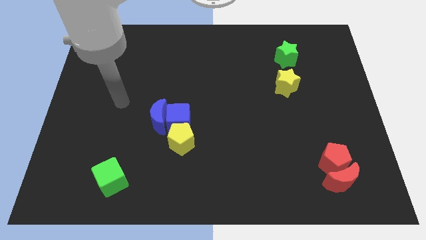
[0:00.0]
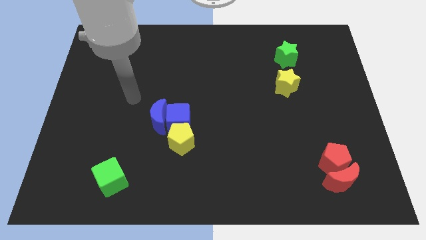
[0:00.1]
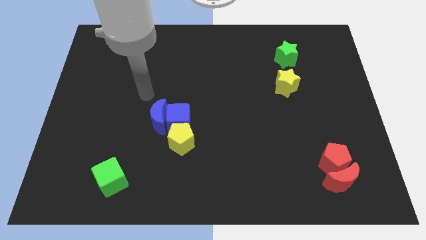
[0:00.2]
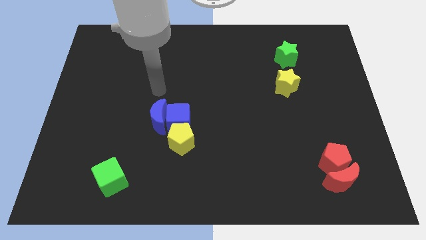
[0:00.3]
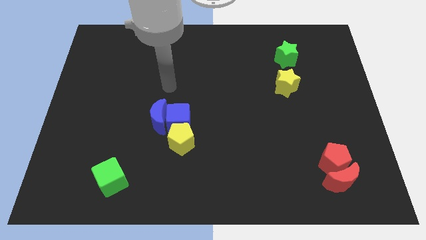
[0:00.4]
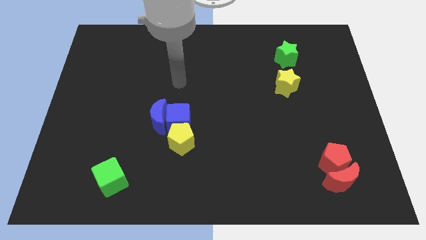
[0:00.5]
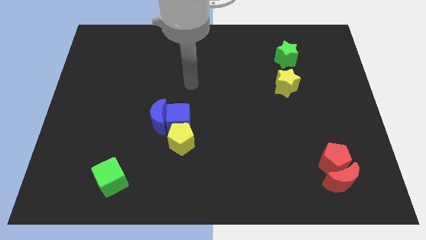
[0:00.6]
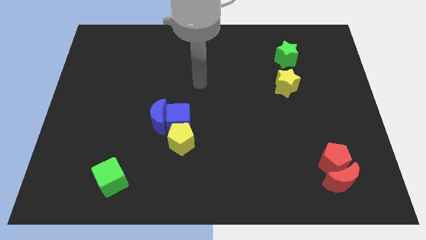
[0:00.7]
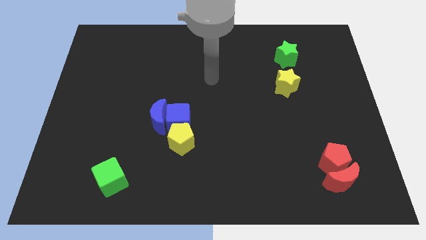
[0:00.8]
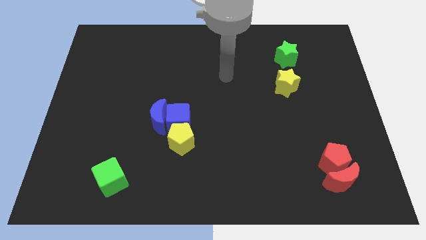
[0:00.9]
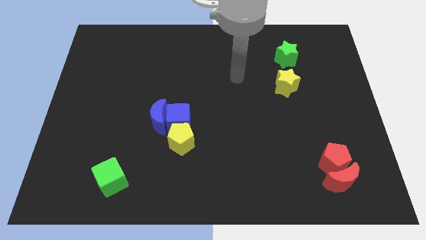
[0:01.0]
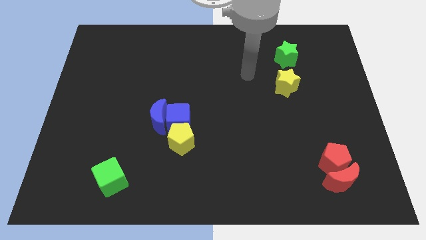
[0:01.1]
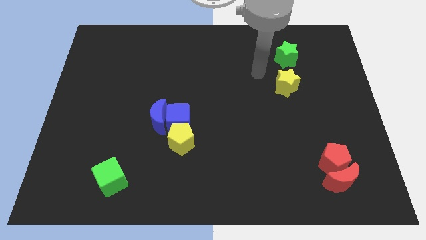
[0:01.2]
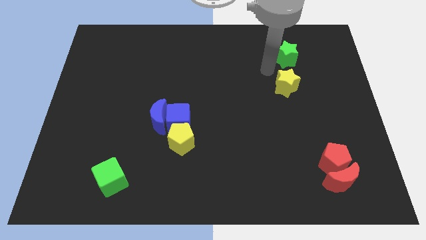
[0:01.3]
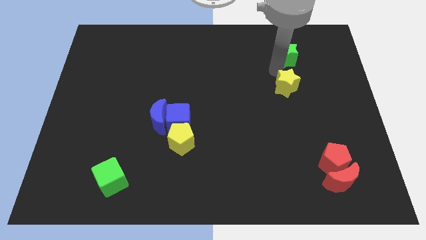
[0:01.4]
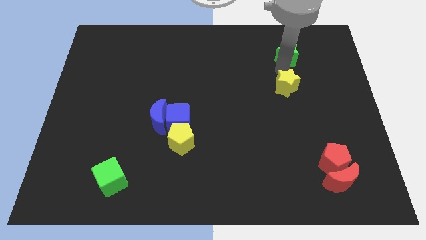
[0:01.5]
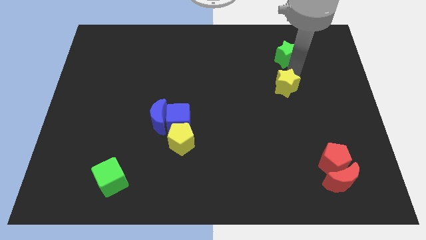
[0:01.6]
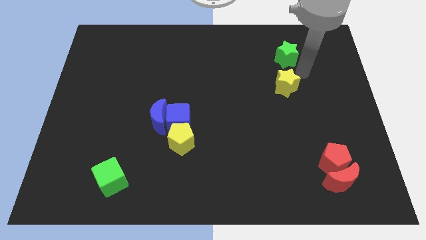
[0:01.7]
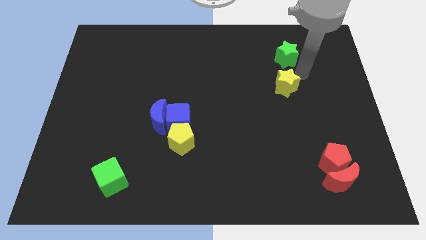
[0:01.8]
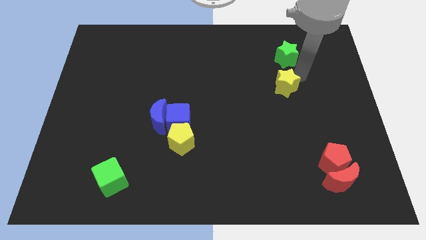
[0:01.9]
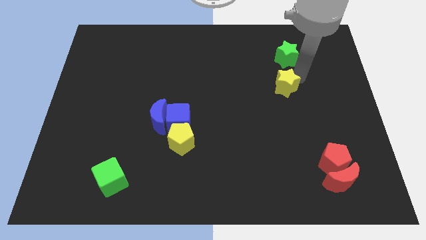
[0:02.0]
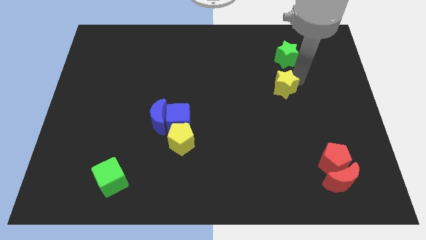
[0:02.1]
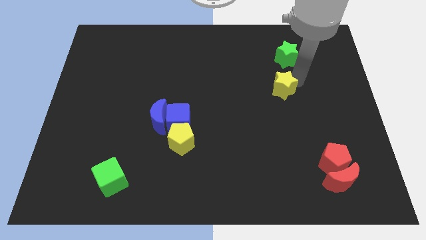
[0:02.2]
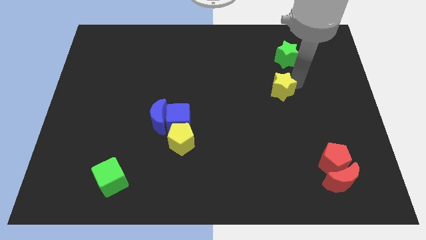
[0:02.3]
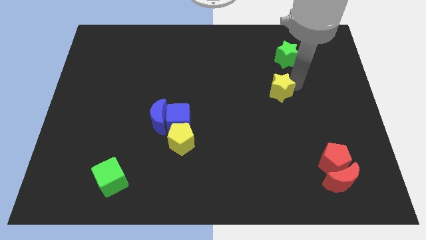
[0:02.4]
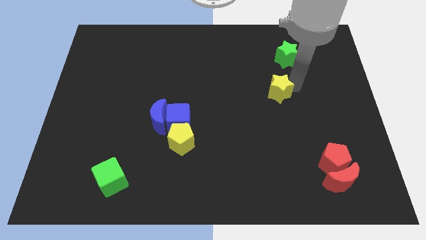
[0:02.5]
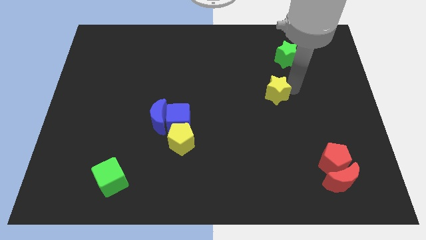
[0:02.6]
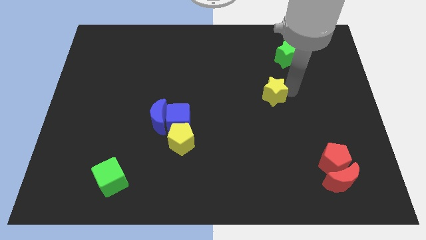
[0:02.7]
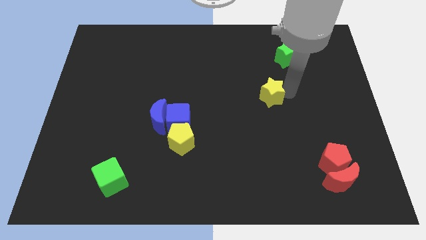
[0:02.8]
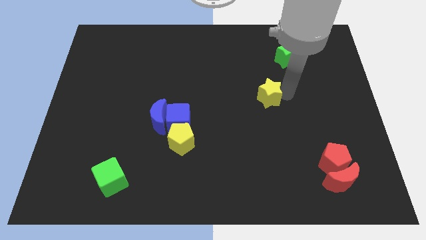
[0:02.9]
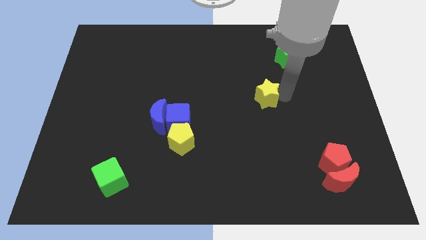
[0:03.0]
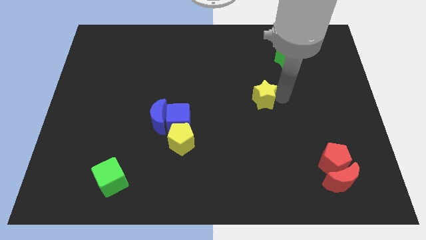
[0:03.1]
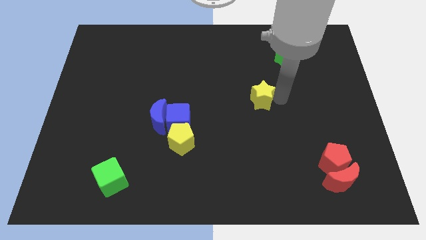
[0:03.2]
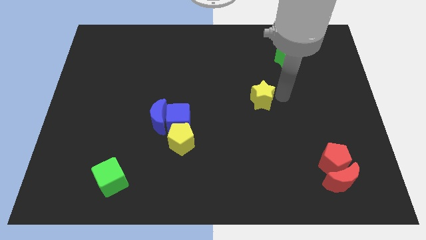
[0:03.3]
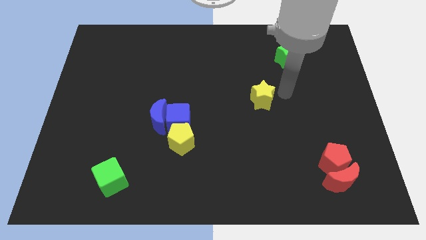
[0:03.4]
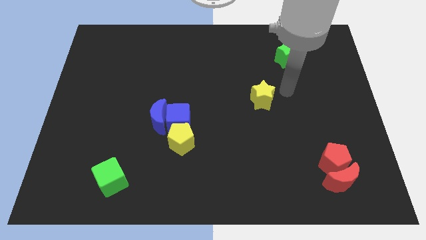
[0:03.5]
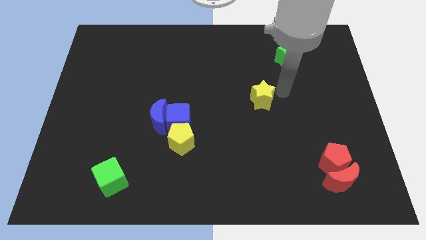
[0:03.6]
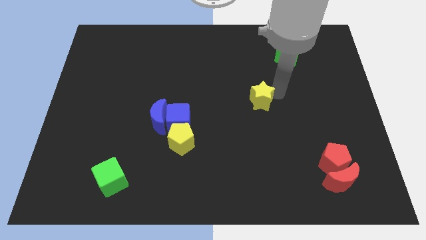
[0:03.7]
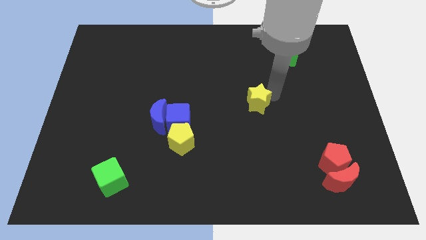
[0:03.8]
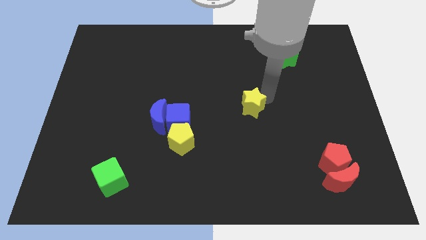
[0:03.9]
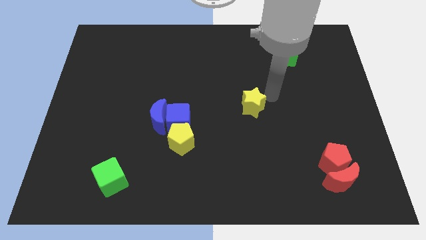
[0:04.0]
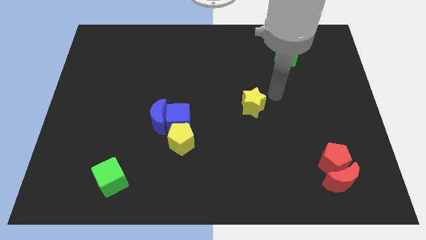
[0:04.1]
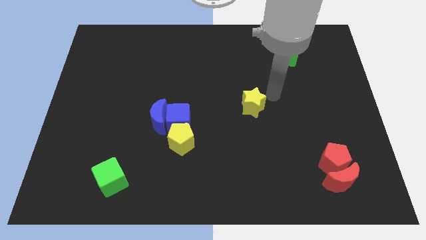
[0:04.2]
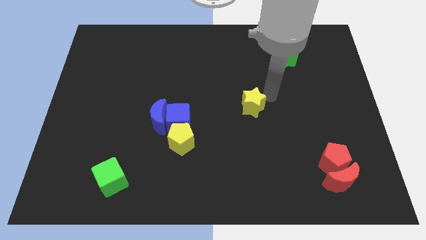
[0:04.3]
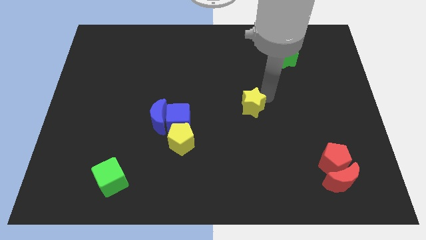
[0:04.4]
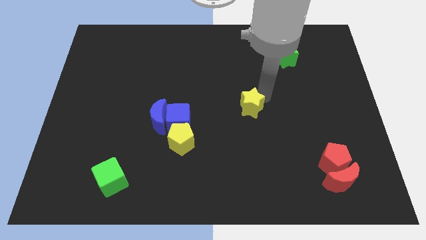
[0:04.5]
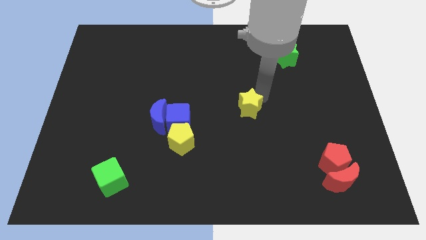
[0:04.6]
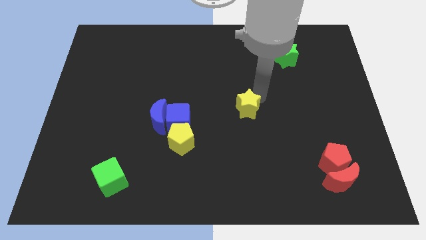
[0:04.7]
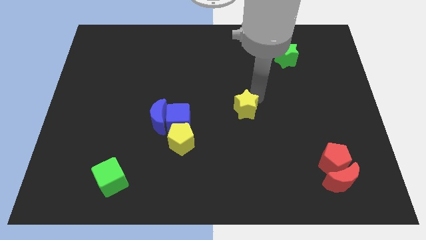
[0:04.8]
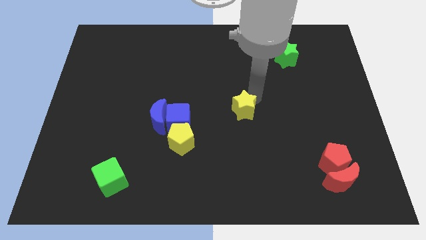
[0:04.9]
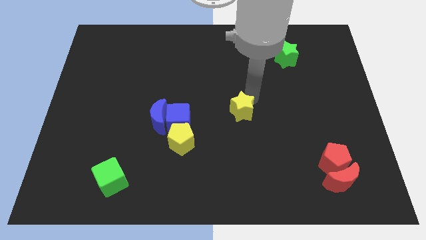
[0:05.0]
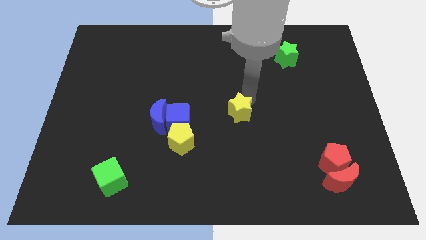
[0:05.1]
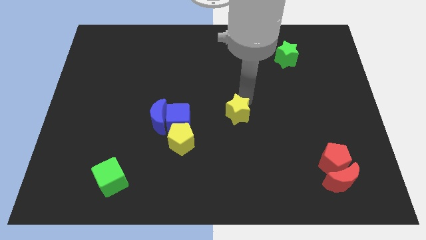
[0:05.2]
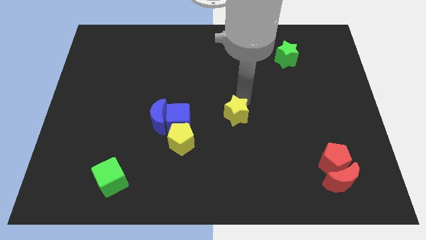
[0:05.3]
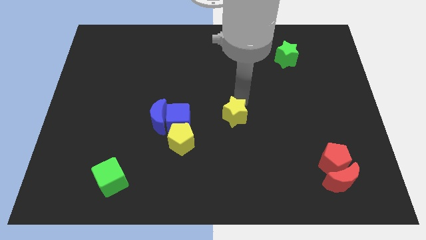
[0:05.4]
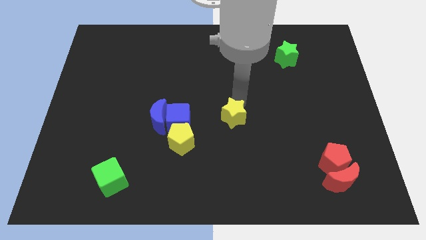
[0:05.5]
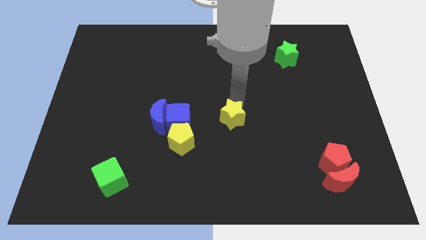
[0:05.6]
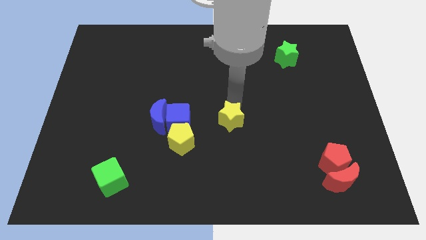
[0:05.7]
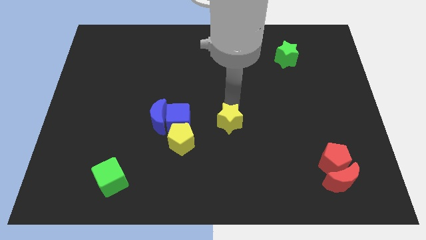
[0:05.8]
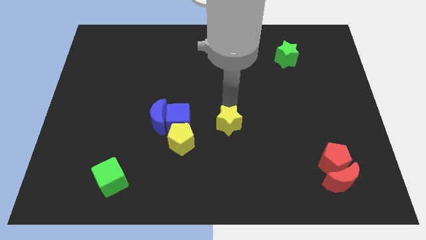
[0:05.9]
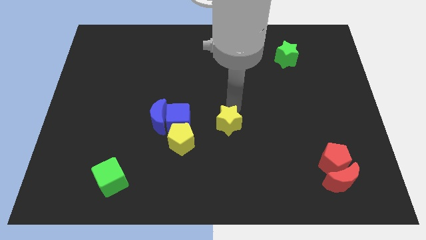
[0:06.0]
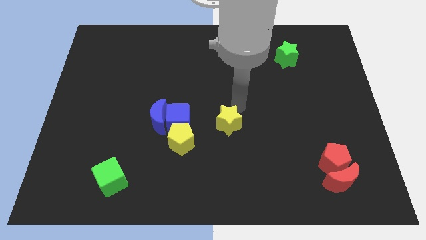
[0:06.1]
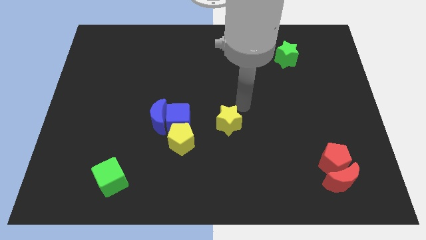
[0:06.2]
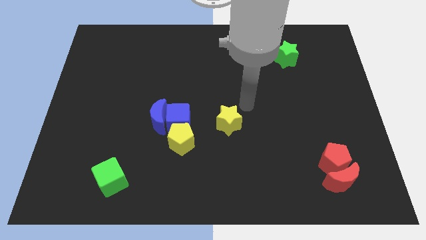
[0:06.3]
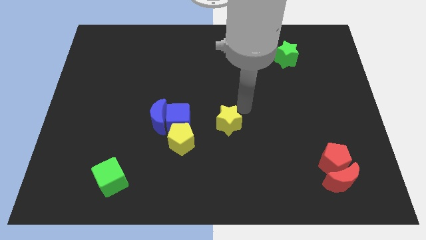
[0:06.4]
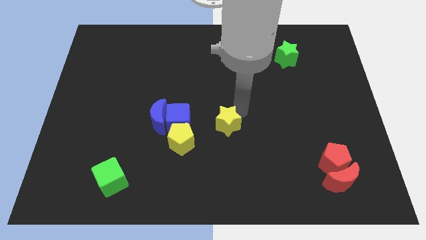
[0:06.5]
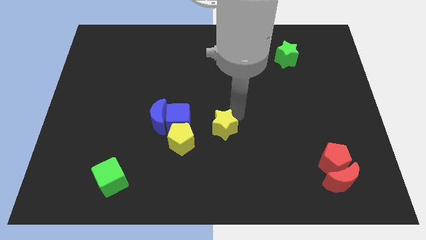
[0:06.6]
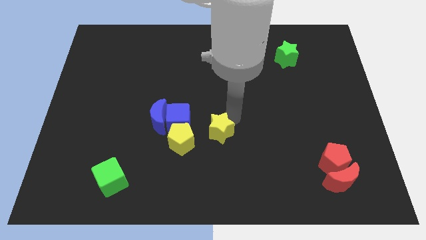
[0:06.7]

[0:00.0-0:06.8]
move the yellow star down and then to the left

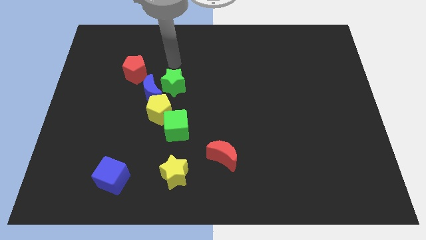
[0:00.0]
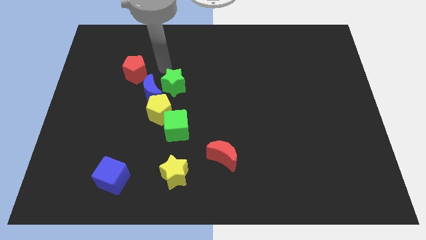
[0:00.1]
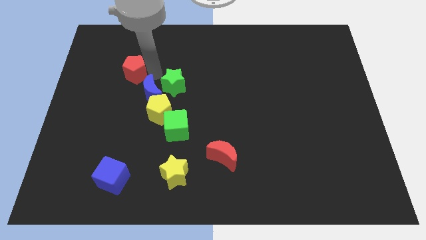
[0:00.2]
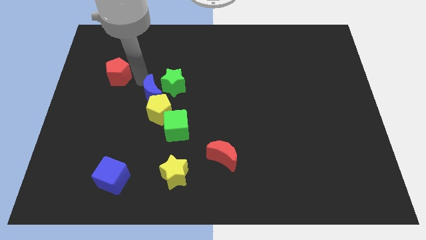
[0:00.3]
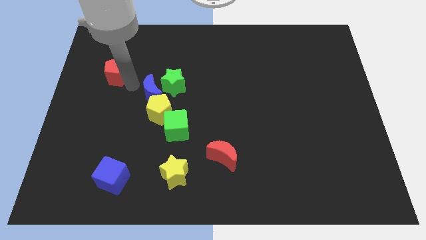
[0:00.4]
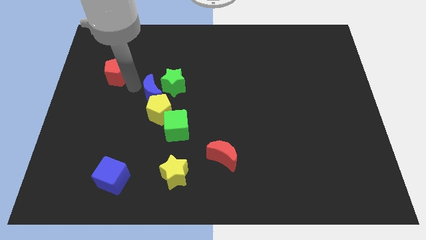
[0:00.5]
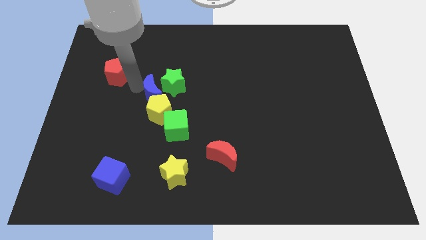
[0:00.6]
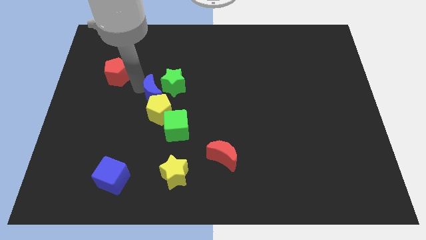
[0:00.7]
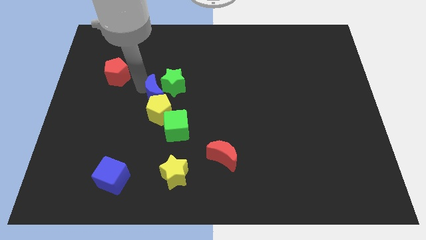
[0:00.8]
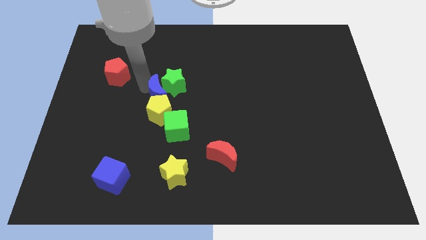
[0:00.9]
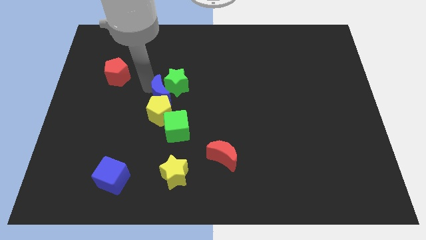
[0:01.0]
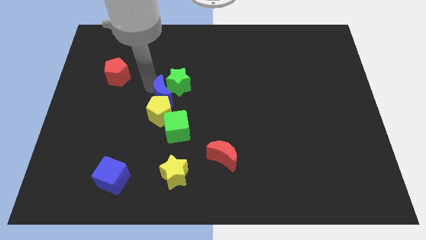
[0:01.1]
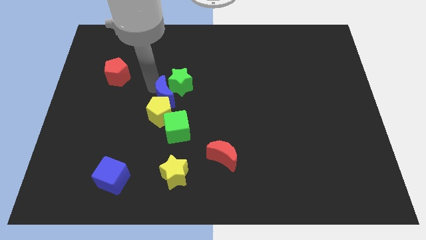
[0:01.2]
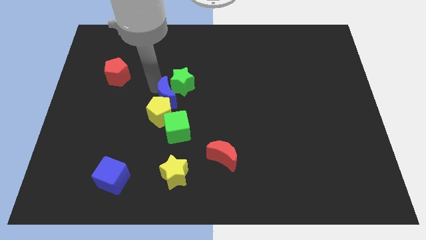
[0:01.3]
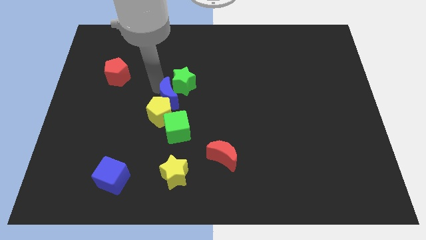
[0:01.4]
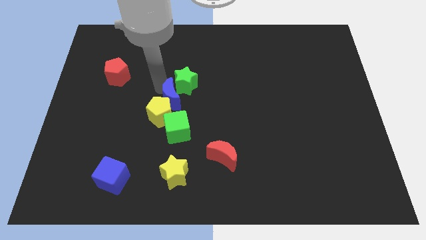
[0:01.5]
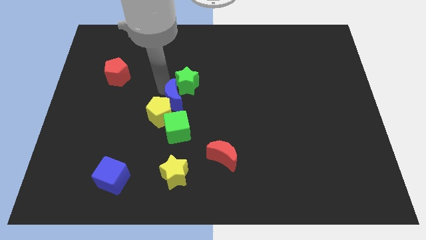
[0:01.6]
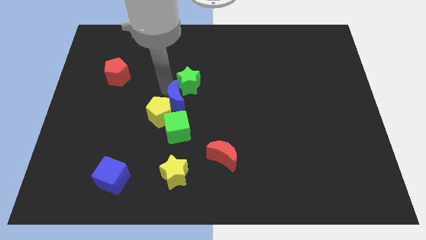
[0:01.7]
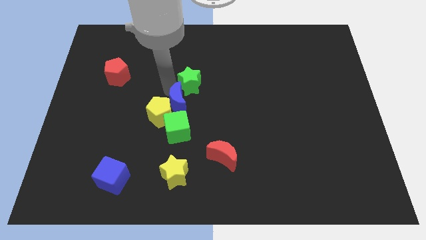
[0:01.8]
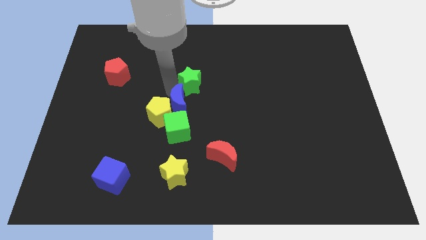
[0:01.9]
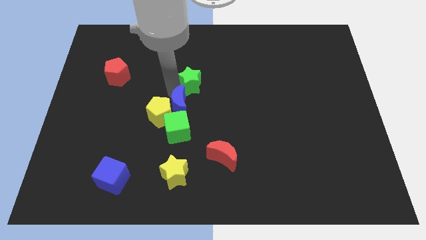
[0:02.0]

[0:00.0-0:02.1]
push the blue moon somewhat downwards and to the right diagonally
